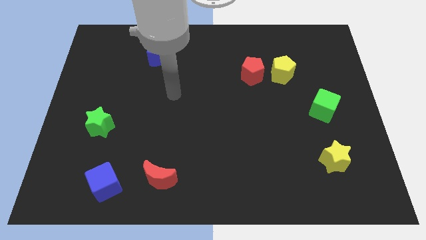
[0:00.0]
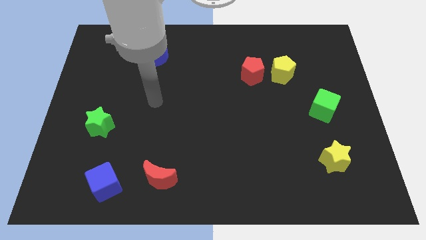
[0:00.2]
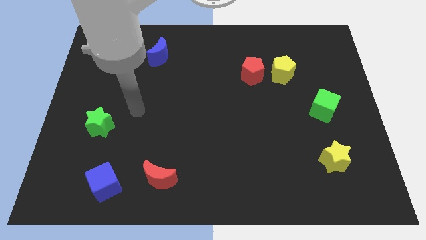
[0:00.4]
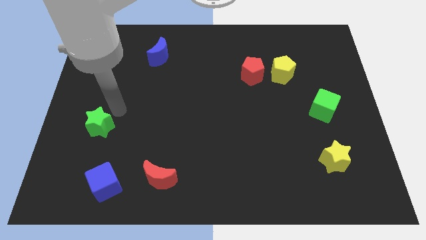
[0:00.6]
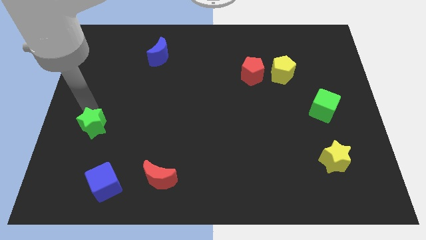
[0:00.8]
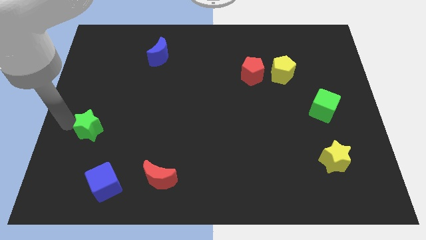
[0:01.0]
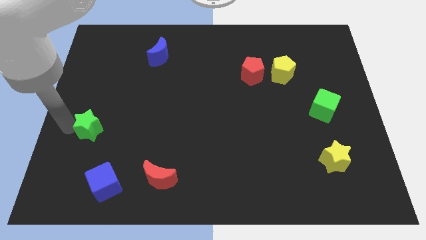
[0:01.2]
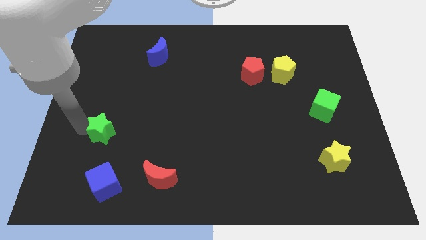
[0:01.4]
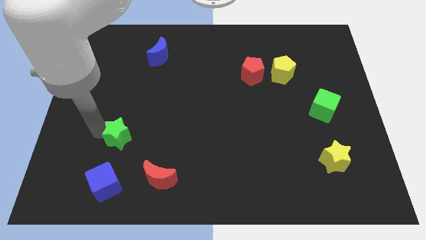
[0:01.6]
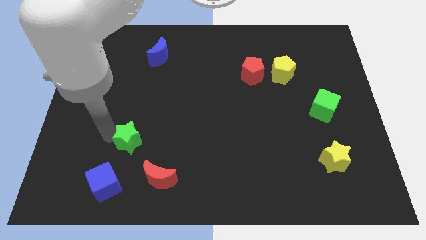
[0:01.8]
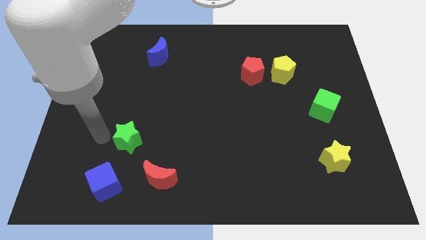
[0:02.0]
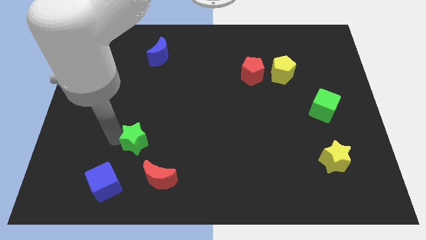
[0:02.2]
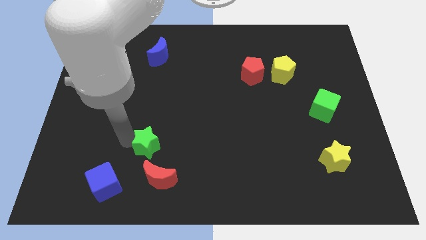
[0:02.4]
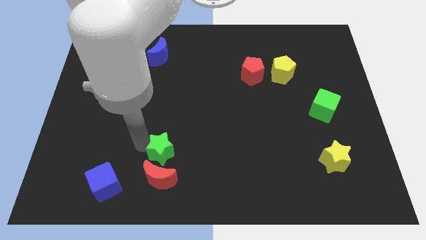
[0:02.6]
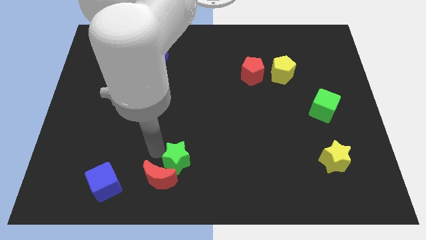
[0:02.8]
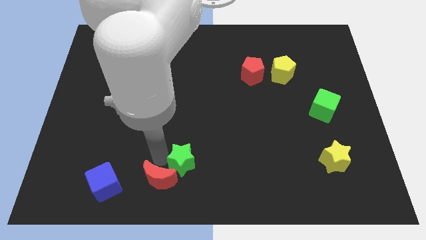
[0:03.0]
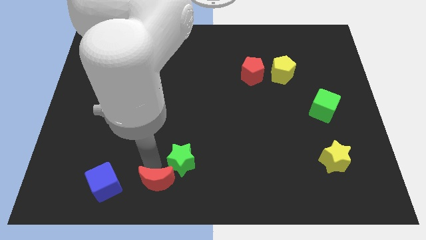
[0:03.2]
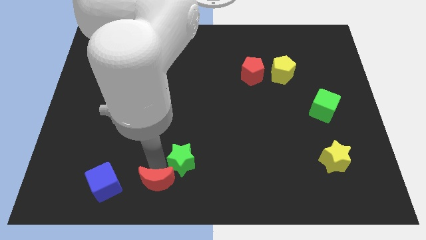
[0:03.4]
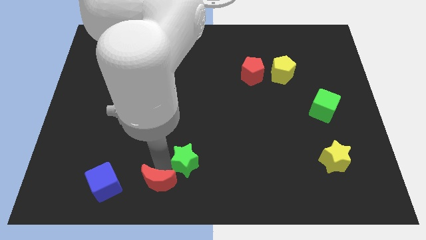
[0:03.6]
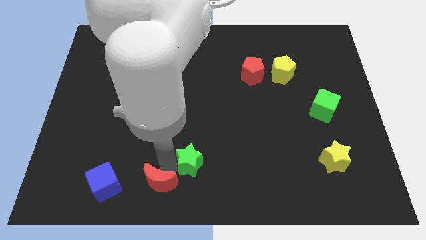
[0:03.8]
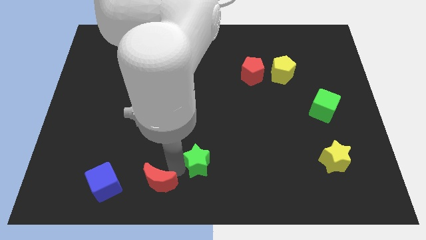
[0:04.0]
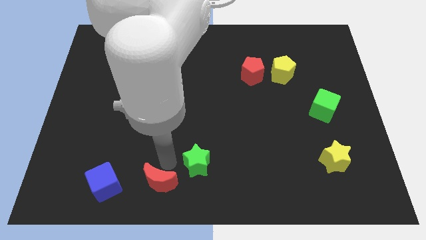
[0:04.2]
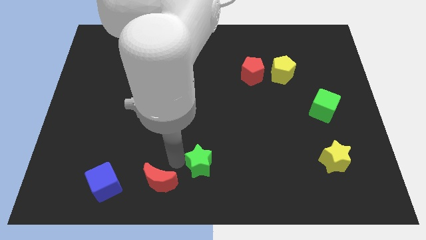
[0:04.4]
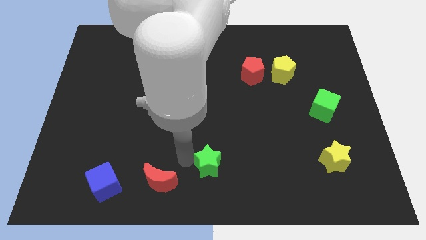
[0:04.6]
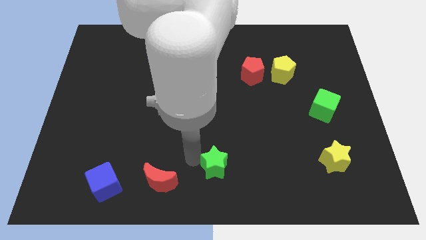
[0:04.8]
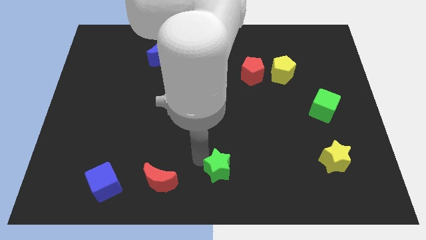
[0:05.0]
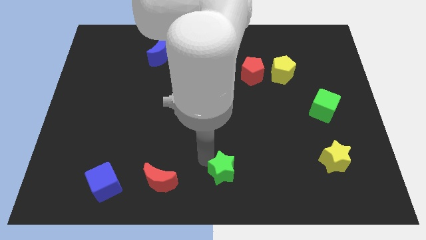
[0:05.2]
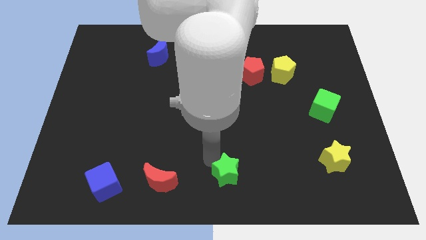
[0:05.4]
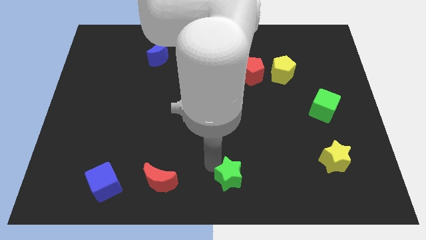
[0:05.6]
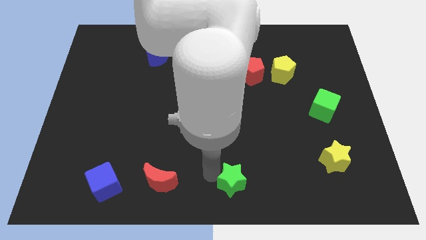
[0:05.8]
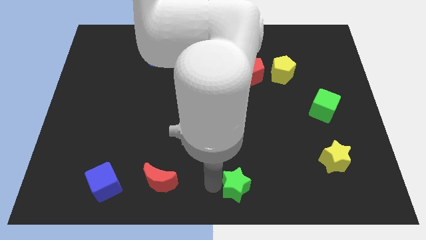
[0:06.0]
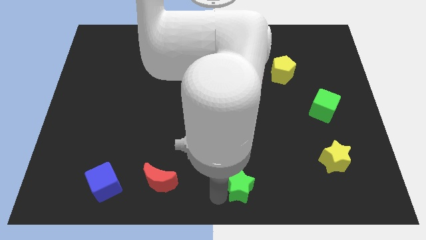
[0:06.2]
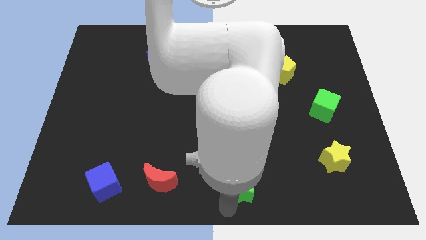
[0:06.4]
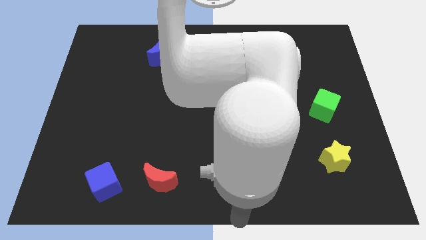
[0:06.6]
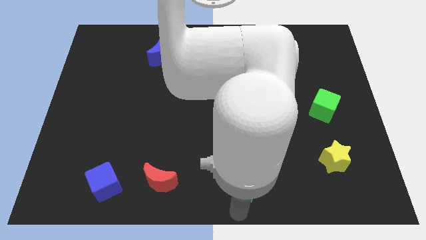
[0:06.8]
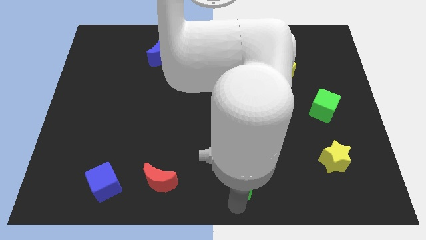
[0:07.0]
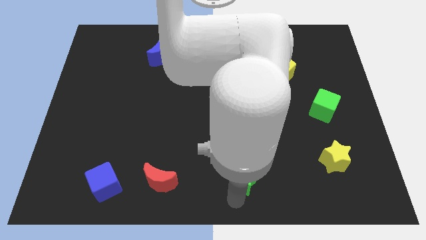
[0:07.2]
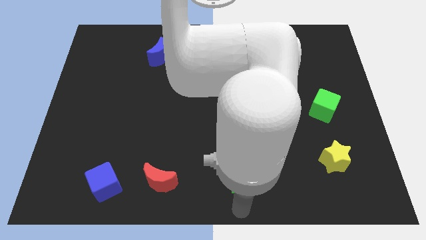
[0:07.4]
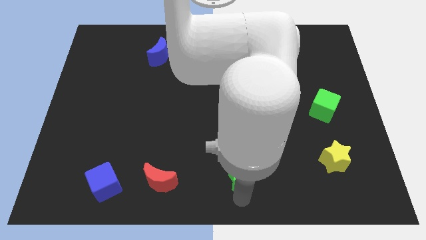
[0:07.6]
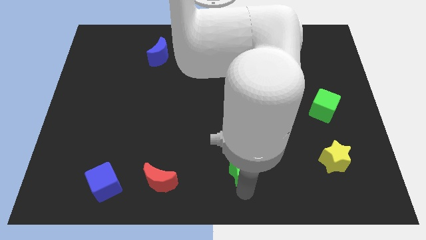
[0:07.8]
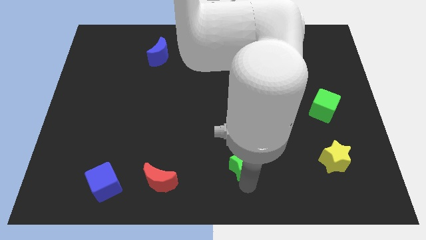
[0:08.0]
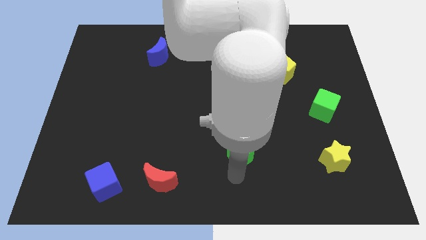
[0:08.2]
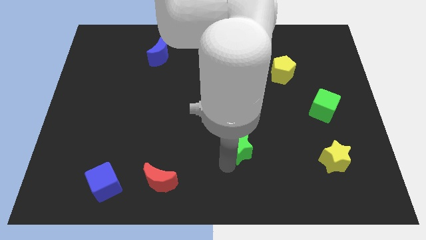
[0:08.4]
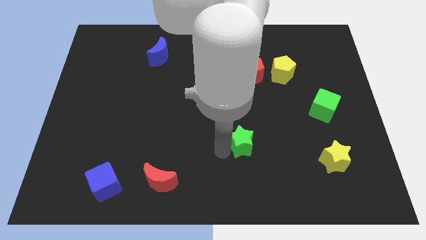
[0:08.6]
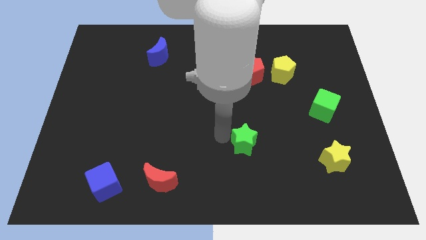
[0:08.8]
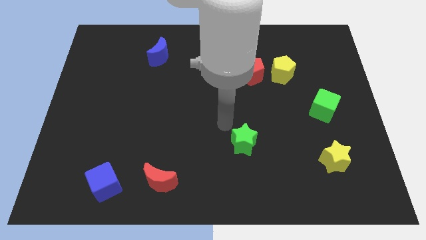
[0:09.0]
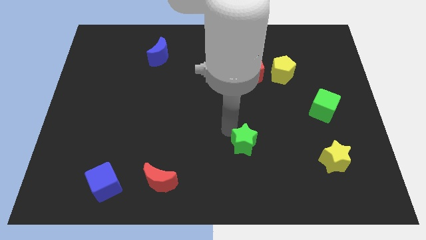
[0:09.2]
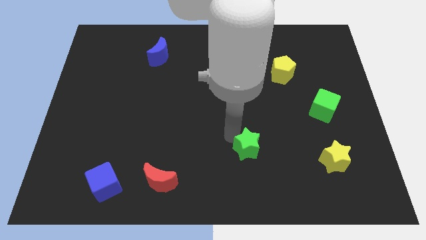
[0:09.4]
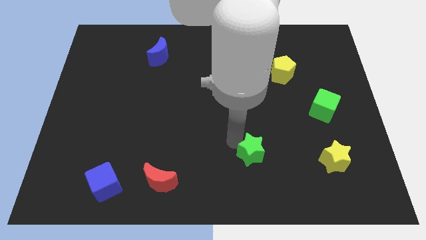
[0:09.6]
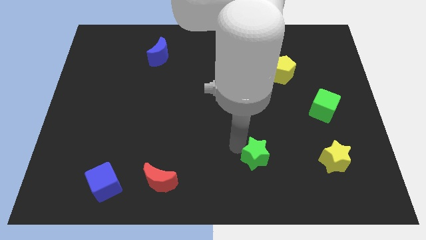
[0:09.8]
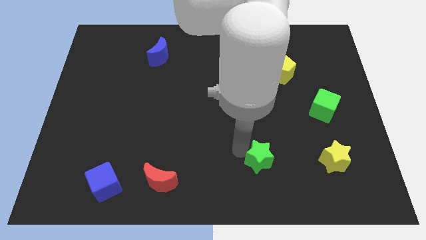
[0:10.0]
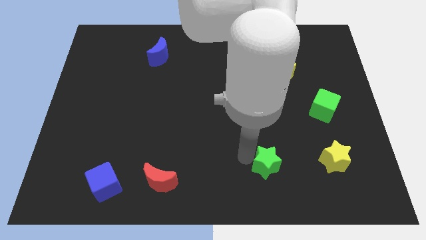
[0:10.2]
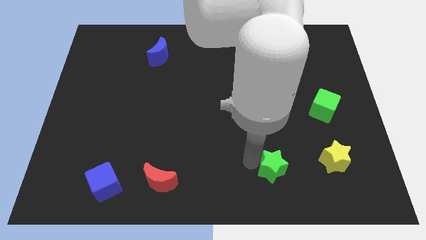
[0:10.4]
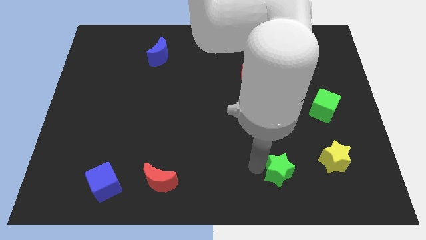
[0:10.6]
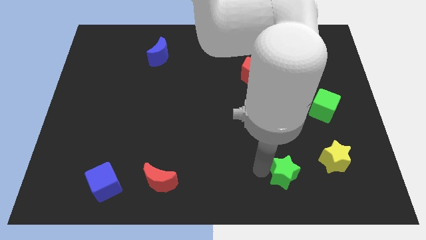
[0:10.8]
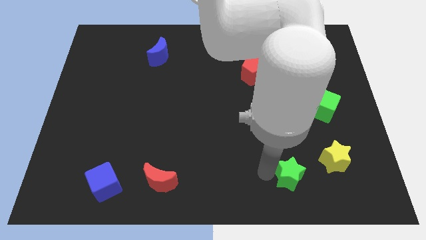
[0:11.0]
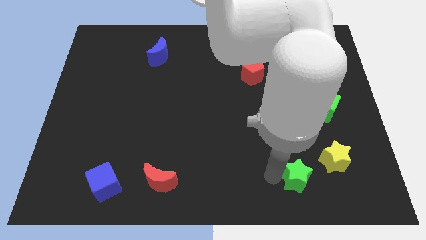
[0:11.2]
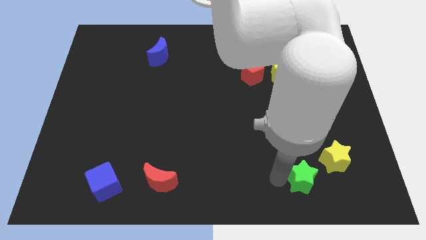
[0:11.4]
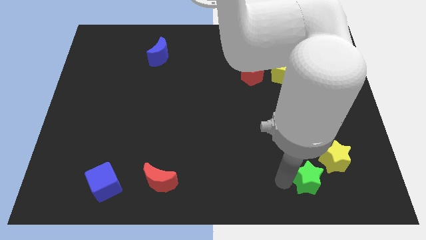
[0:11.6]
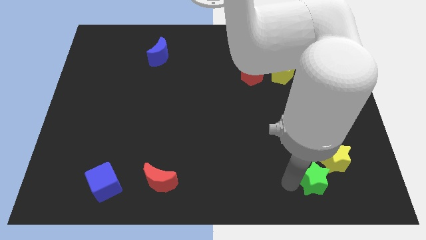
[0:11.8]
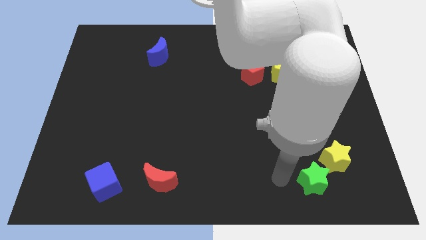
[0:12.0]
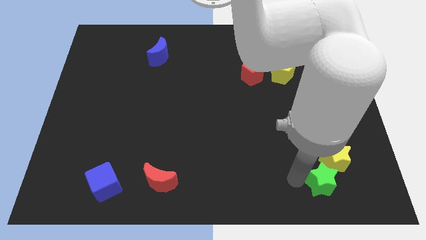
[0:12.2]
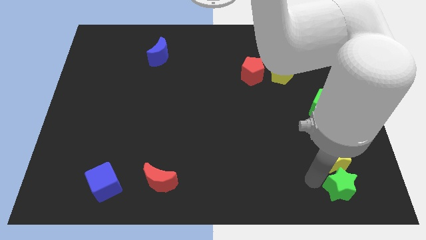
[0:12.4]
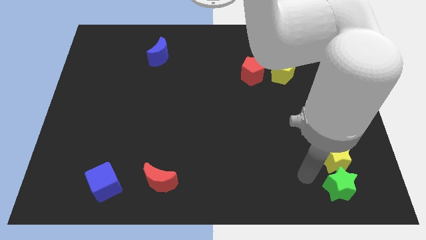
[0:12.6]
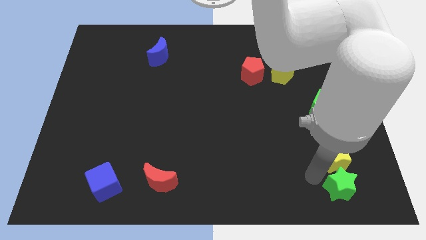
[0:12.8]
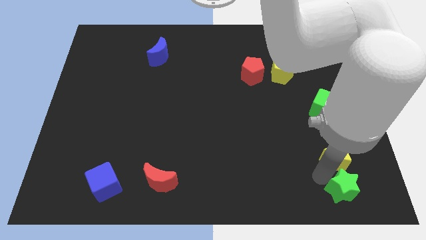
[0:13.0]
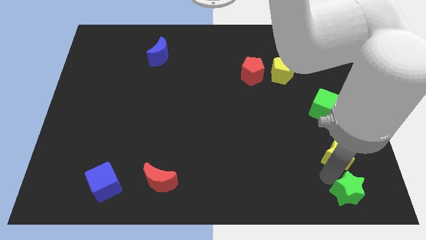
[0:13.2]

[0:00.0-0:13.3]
move the green star to the bottom right corner
